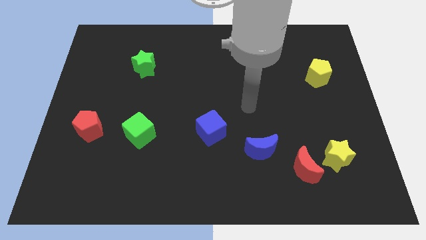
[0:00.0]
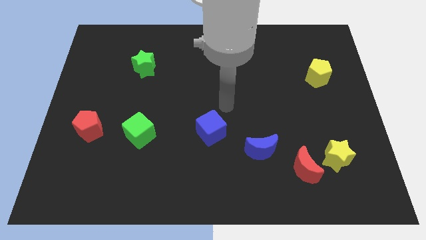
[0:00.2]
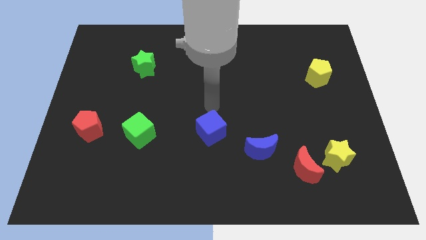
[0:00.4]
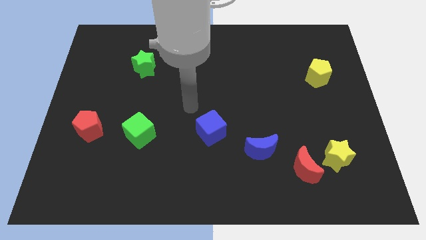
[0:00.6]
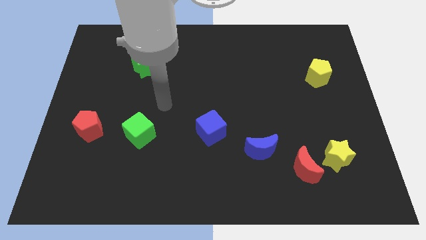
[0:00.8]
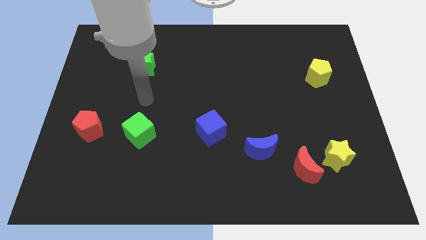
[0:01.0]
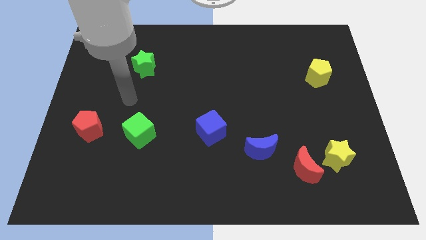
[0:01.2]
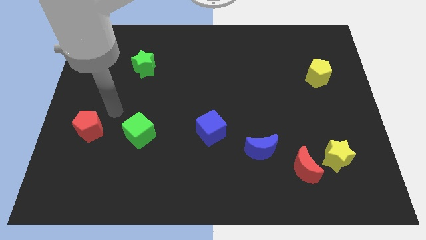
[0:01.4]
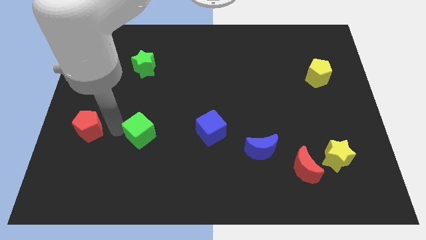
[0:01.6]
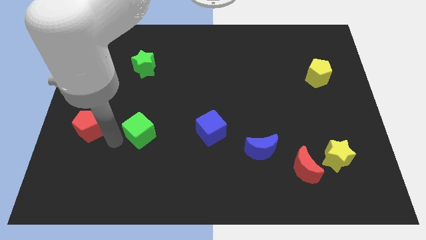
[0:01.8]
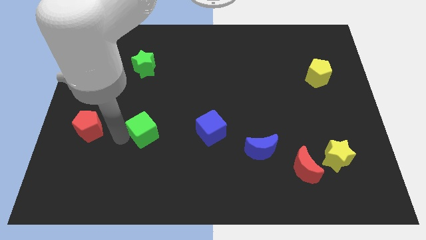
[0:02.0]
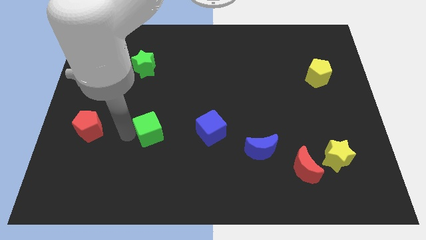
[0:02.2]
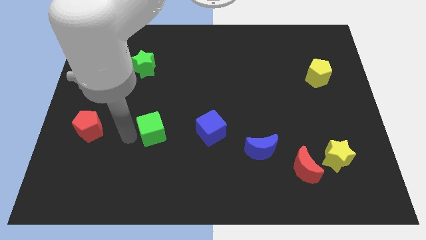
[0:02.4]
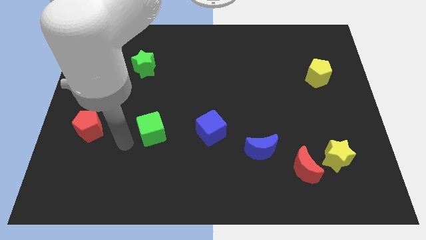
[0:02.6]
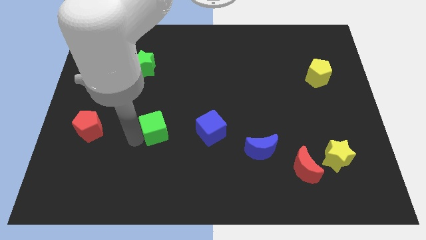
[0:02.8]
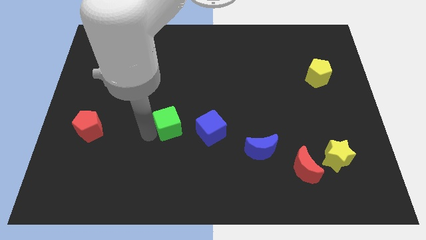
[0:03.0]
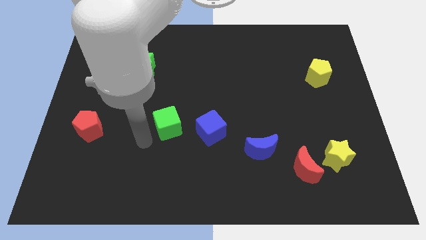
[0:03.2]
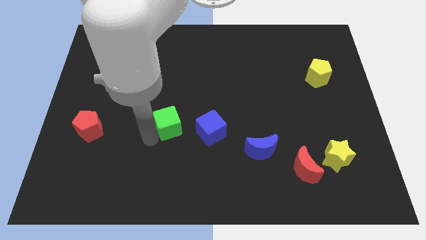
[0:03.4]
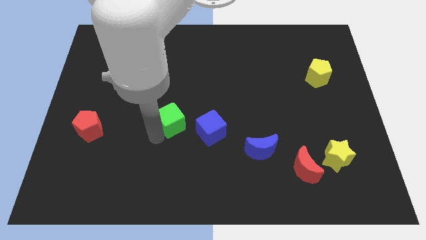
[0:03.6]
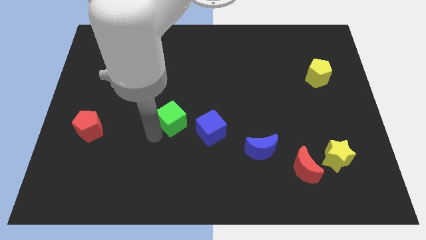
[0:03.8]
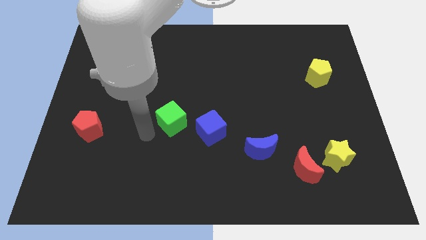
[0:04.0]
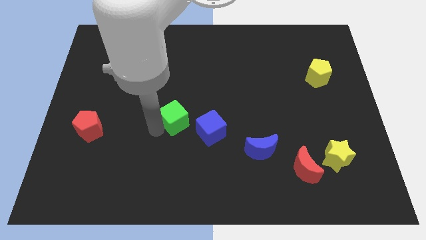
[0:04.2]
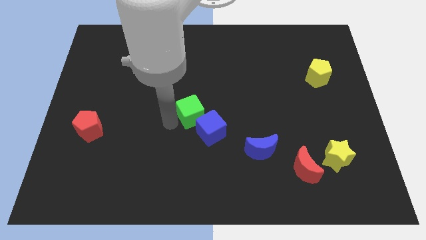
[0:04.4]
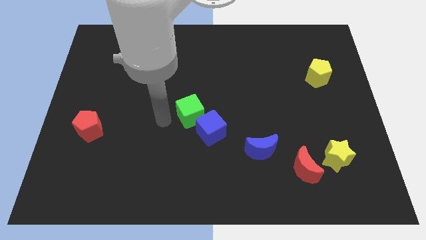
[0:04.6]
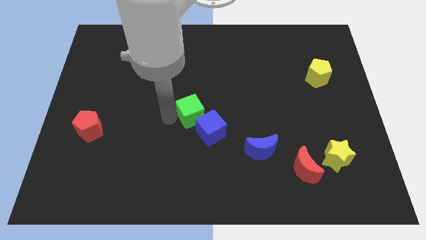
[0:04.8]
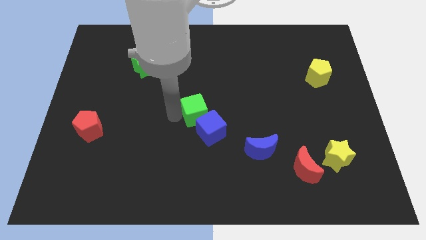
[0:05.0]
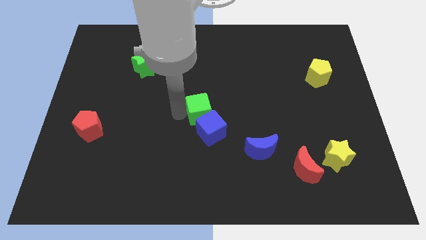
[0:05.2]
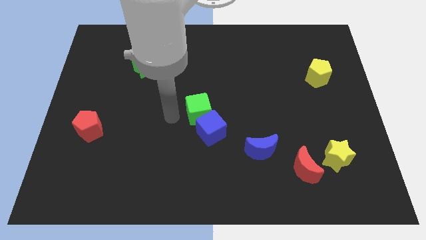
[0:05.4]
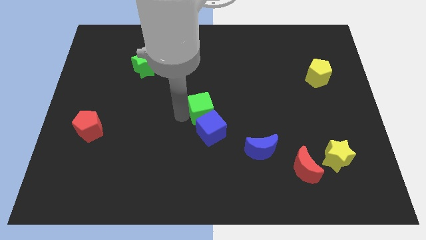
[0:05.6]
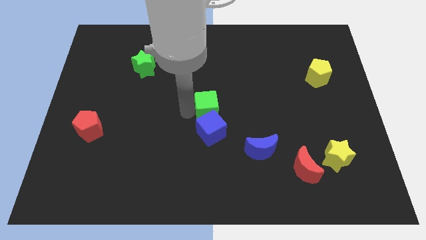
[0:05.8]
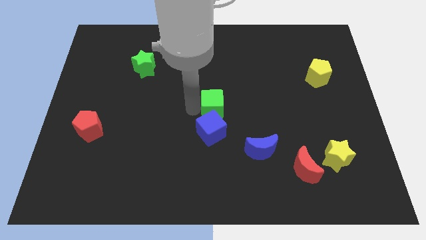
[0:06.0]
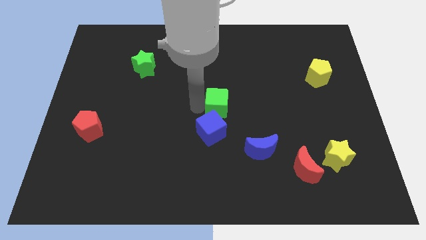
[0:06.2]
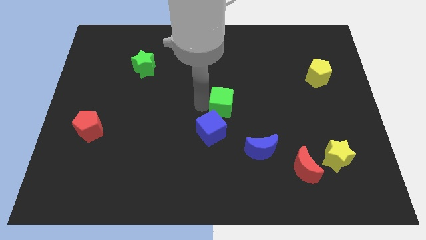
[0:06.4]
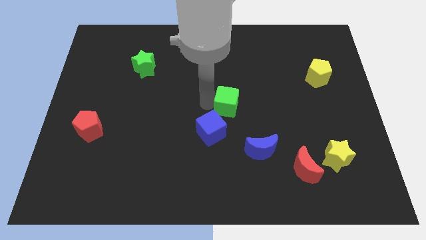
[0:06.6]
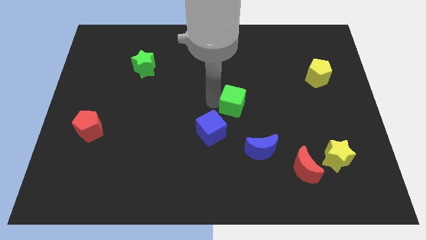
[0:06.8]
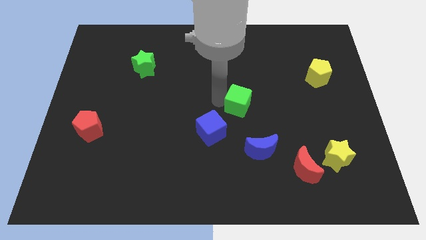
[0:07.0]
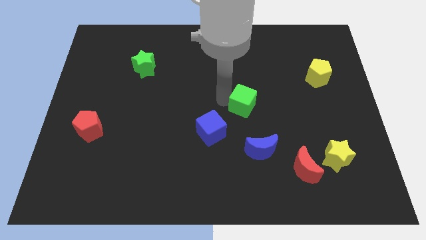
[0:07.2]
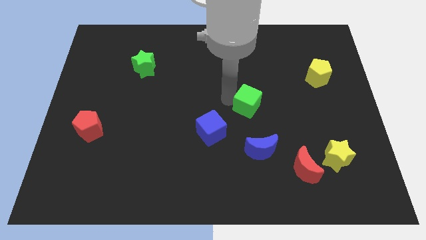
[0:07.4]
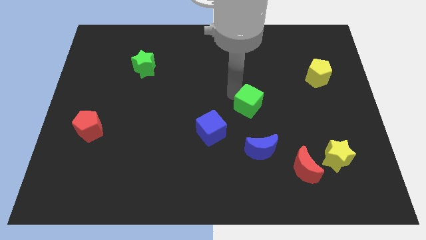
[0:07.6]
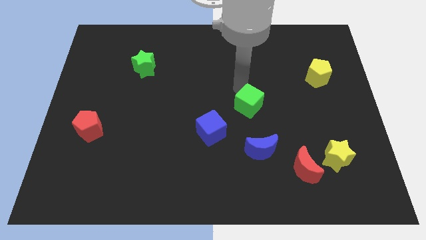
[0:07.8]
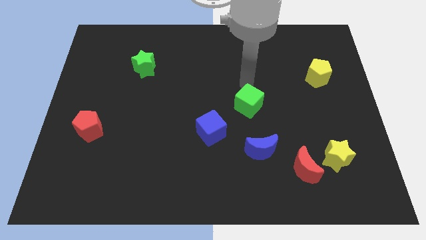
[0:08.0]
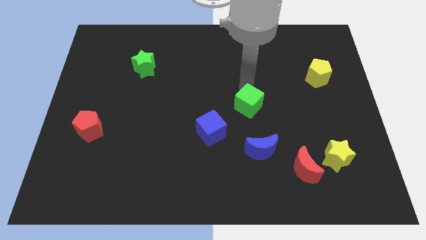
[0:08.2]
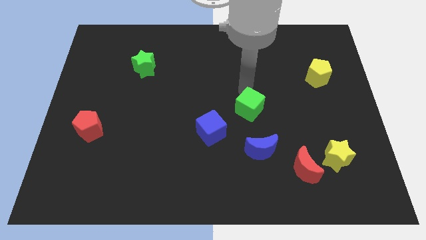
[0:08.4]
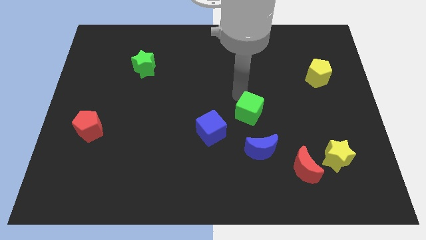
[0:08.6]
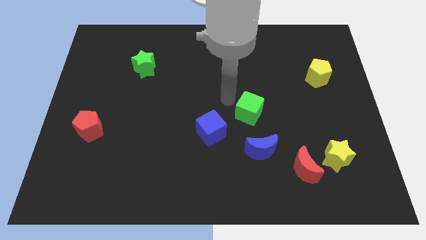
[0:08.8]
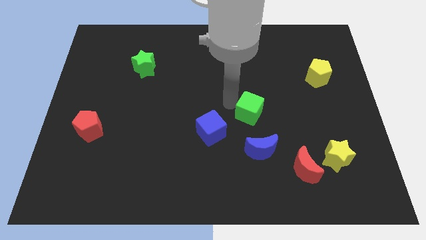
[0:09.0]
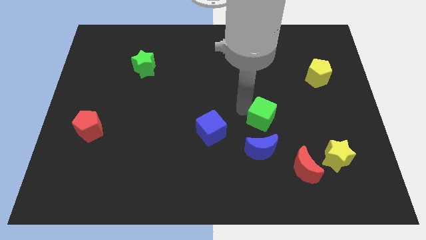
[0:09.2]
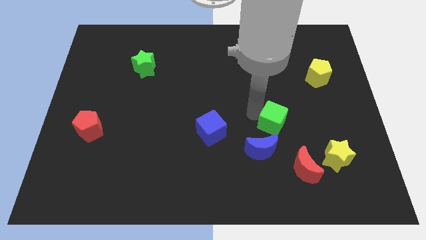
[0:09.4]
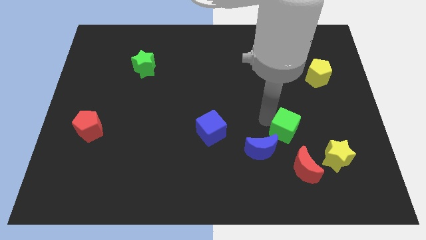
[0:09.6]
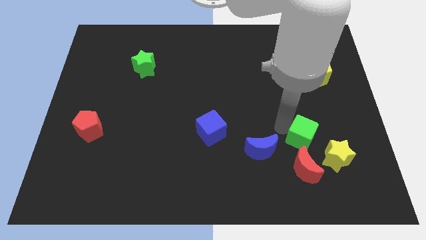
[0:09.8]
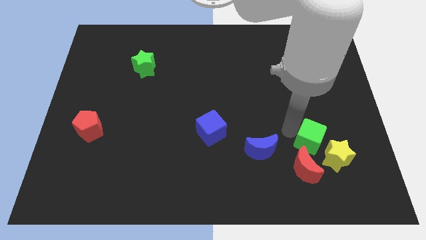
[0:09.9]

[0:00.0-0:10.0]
push the green cube to the top right of the red moon

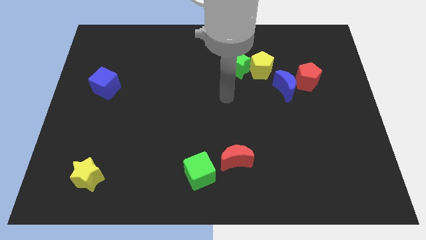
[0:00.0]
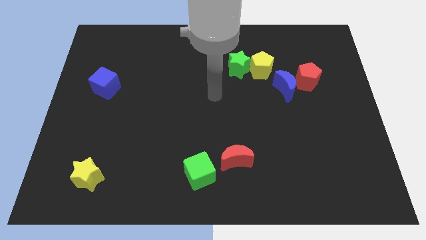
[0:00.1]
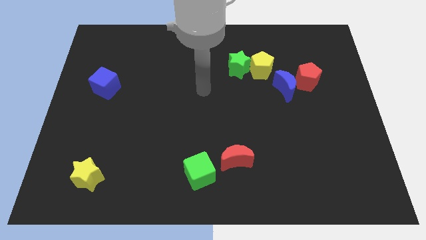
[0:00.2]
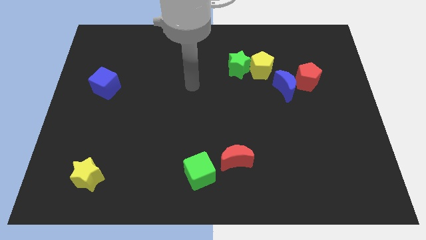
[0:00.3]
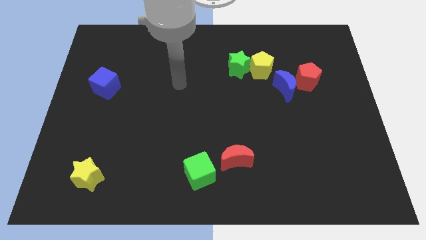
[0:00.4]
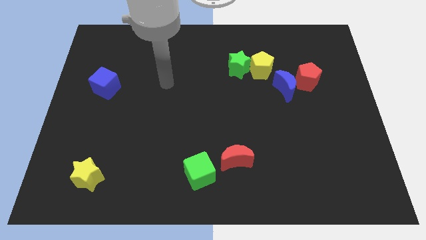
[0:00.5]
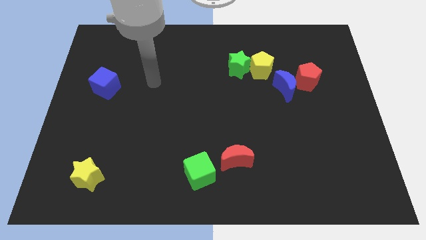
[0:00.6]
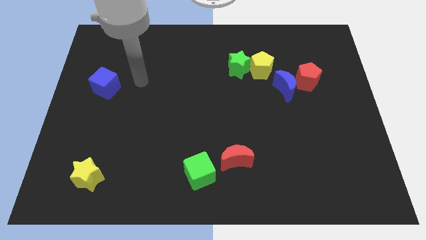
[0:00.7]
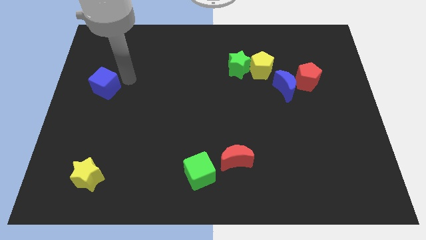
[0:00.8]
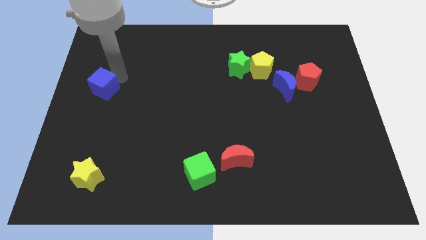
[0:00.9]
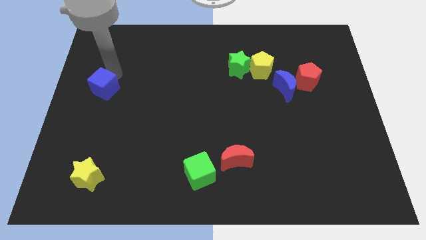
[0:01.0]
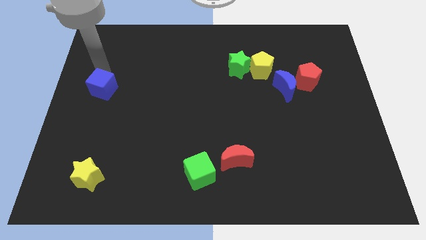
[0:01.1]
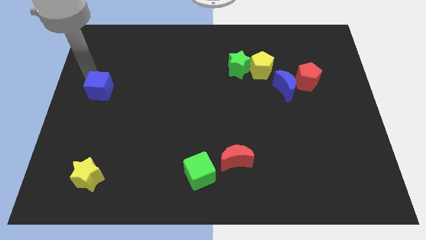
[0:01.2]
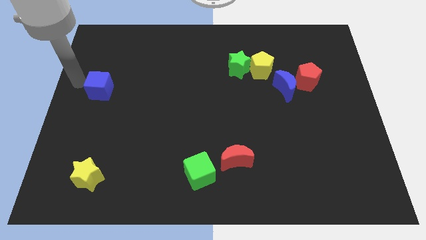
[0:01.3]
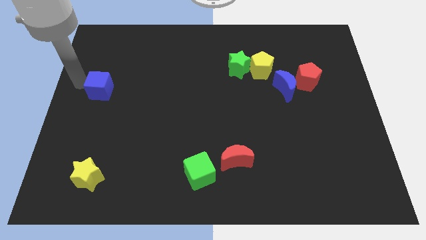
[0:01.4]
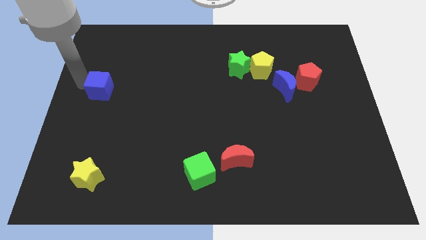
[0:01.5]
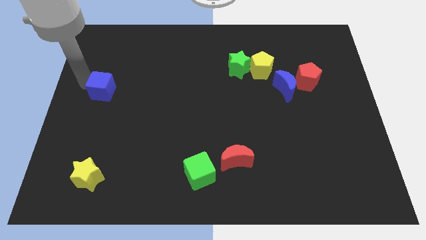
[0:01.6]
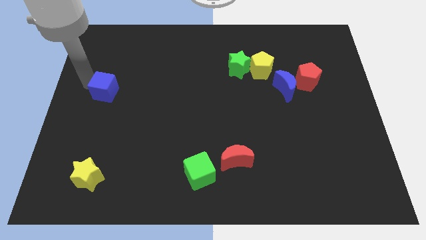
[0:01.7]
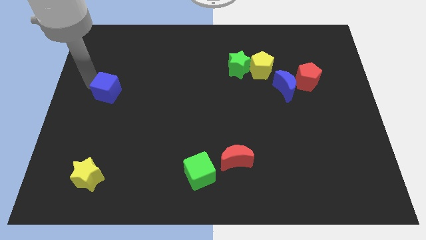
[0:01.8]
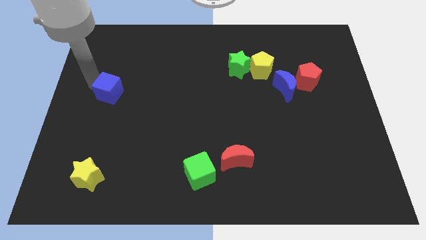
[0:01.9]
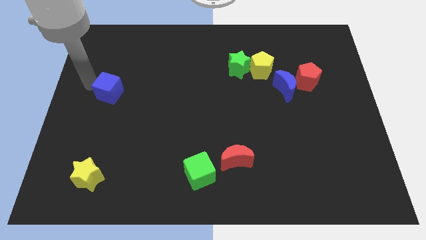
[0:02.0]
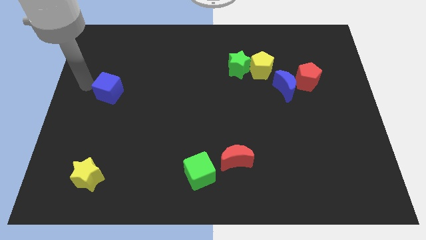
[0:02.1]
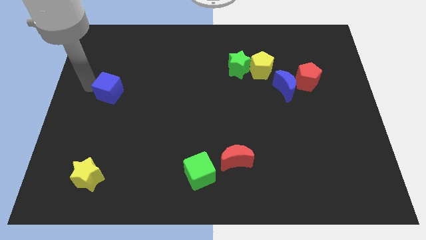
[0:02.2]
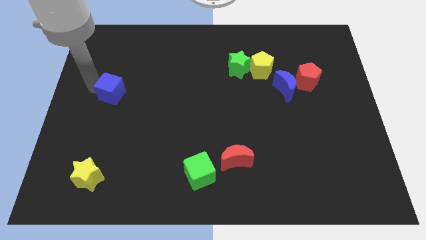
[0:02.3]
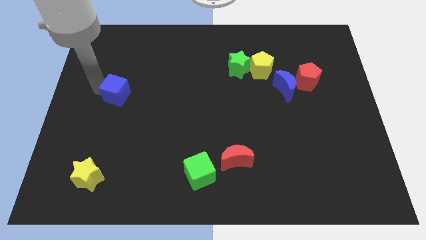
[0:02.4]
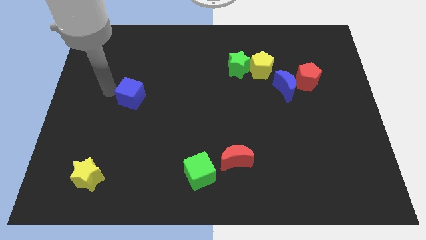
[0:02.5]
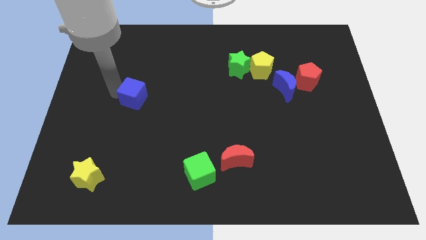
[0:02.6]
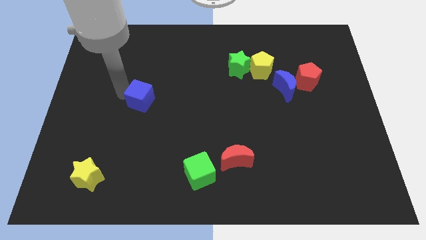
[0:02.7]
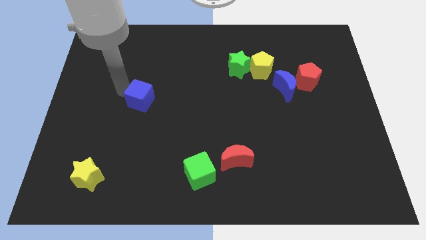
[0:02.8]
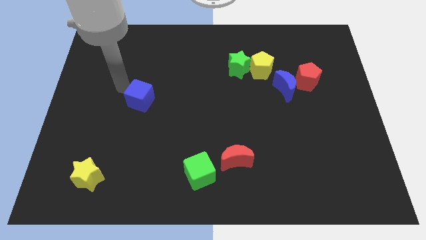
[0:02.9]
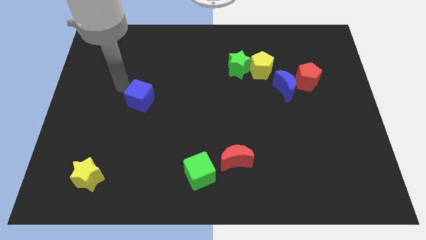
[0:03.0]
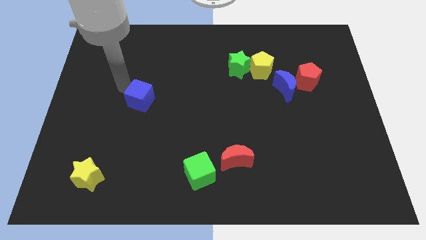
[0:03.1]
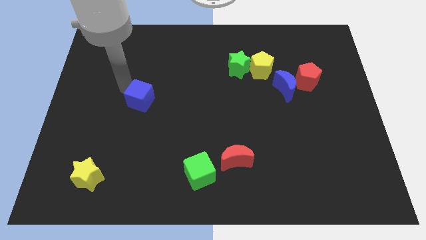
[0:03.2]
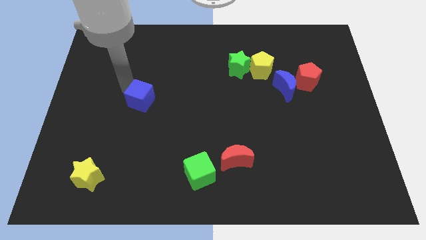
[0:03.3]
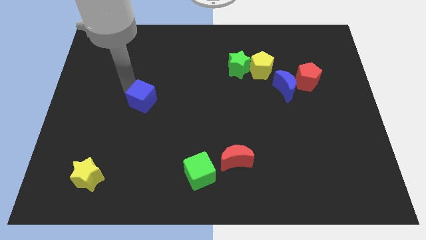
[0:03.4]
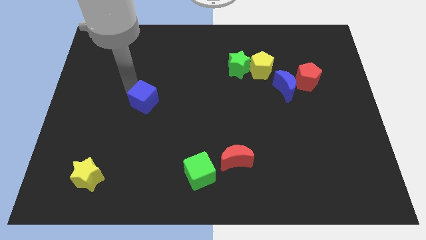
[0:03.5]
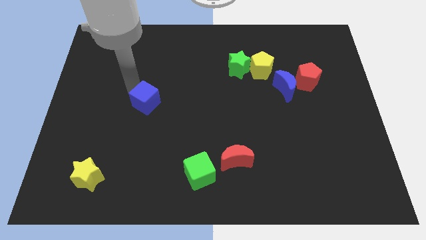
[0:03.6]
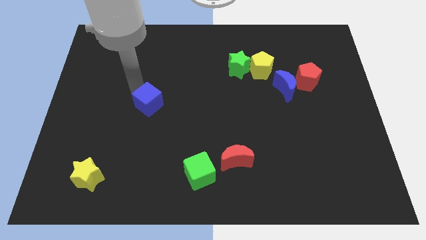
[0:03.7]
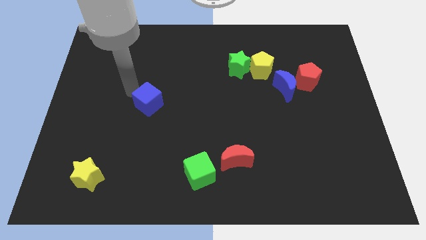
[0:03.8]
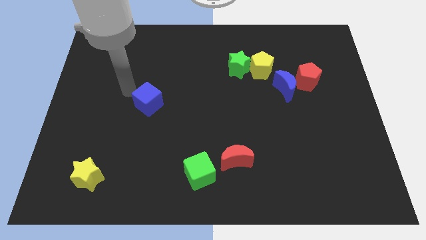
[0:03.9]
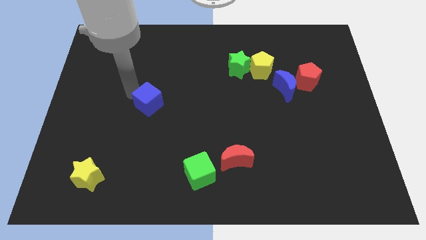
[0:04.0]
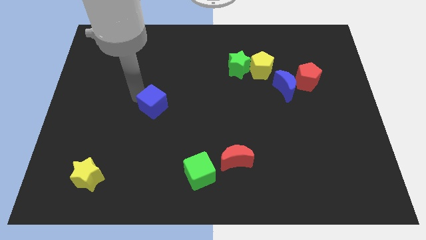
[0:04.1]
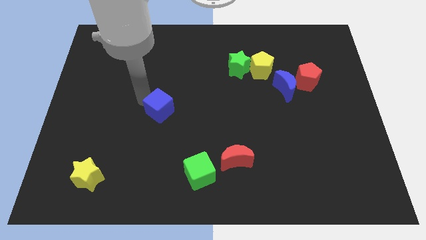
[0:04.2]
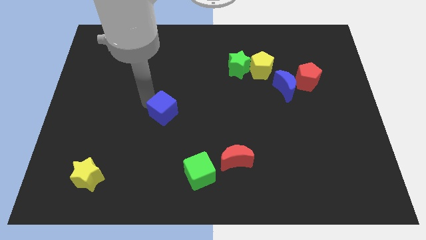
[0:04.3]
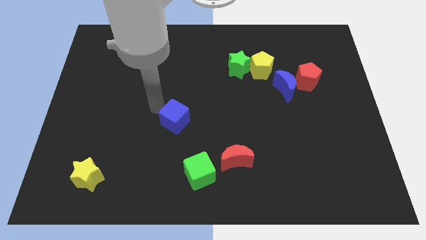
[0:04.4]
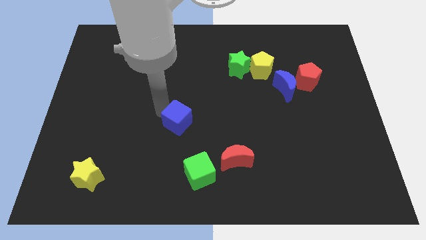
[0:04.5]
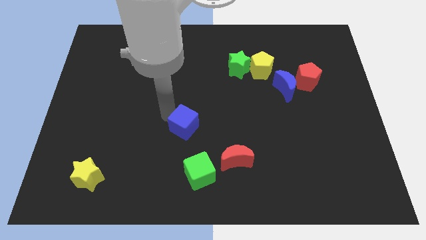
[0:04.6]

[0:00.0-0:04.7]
slide the blue cube to the top side of the green cube
